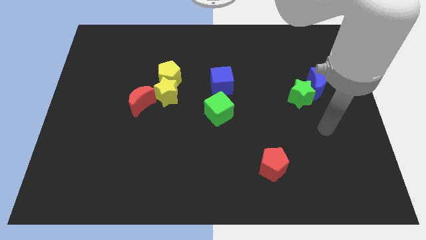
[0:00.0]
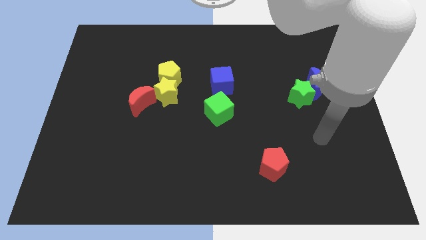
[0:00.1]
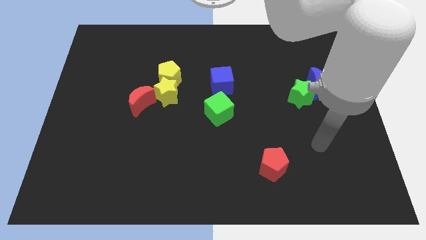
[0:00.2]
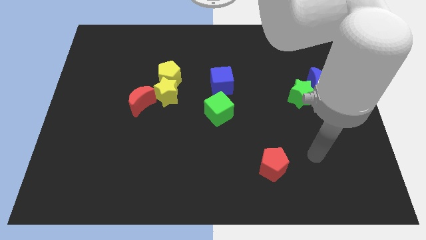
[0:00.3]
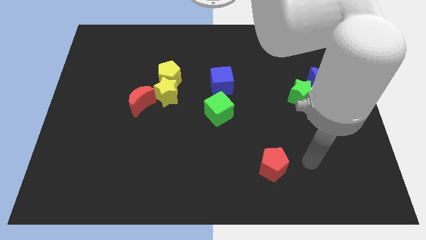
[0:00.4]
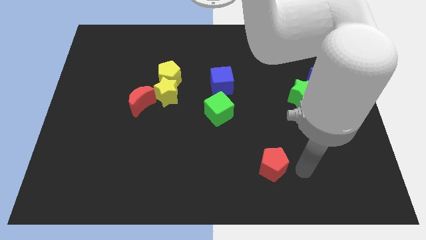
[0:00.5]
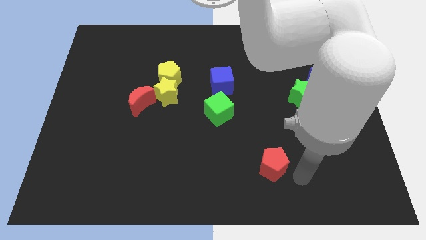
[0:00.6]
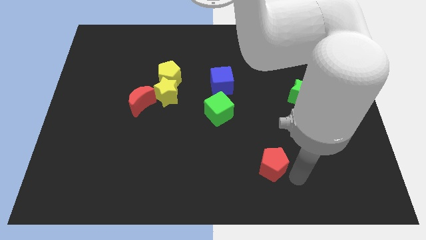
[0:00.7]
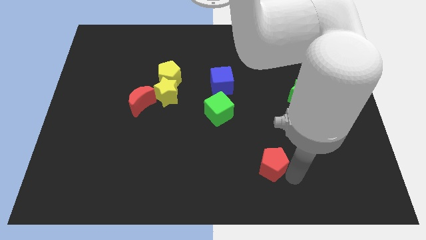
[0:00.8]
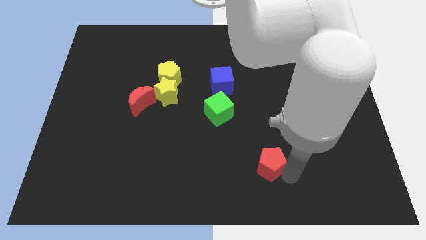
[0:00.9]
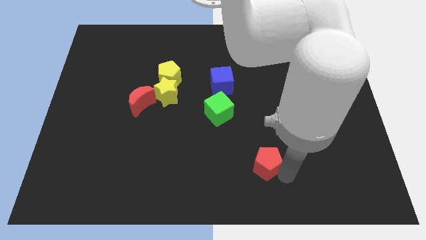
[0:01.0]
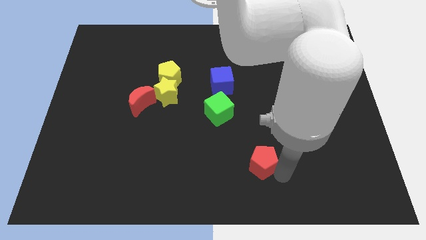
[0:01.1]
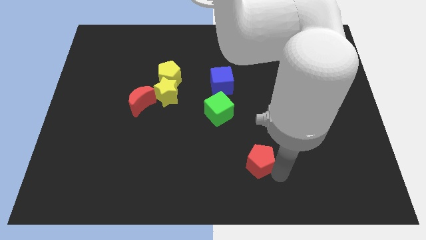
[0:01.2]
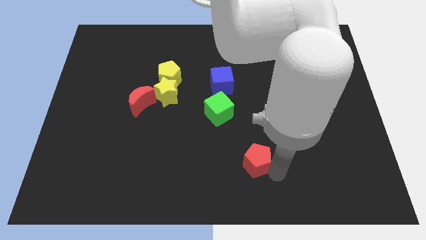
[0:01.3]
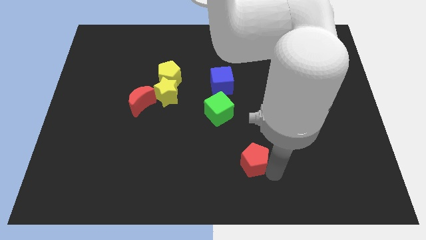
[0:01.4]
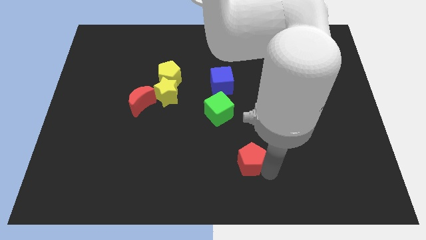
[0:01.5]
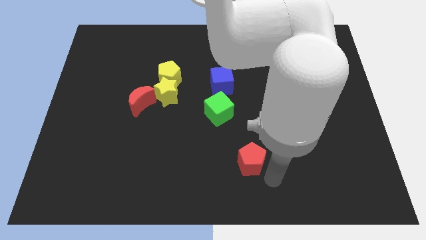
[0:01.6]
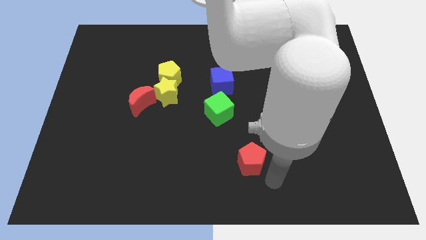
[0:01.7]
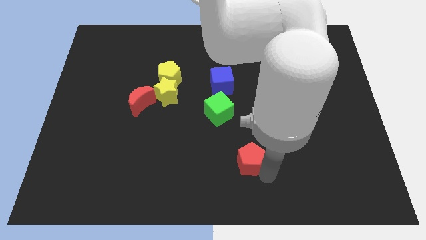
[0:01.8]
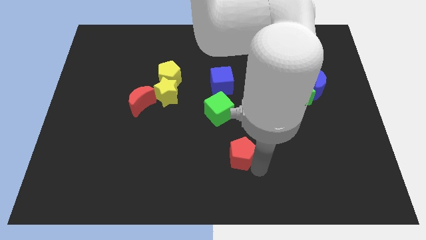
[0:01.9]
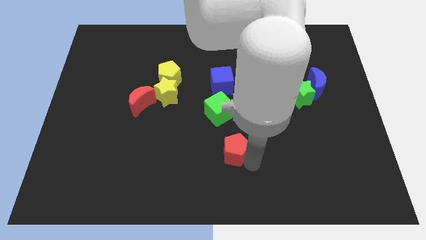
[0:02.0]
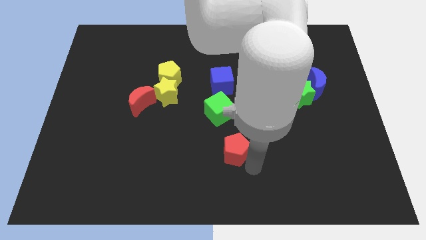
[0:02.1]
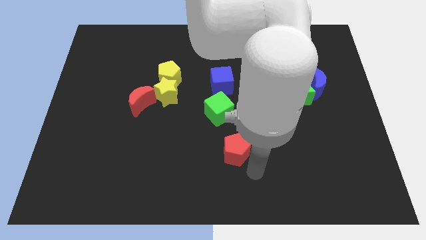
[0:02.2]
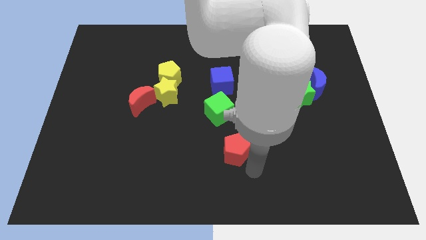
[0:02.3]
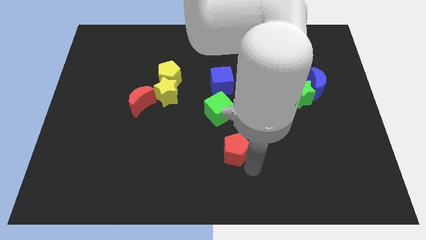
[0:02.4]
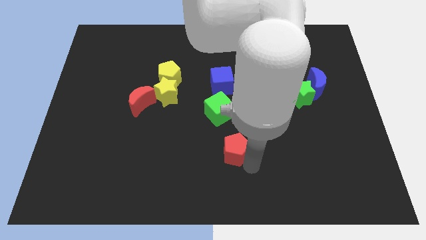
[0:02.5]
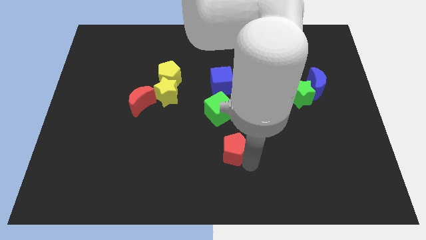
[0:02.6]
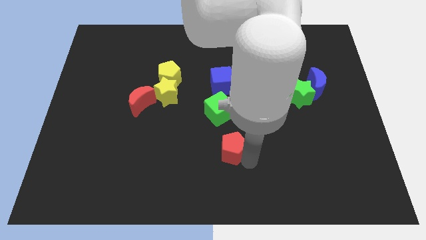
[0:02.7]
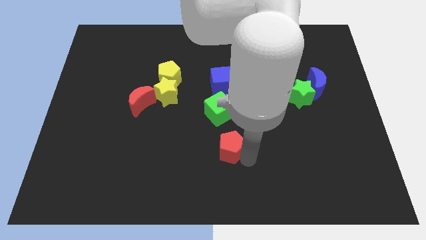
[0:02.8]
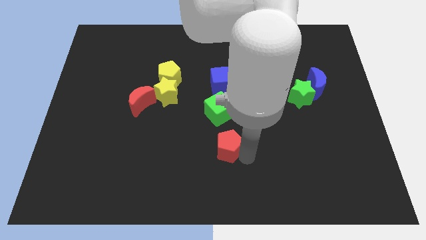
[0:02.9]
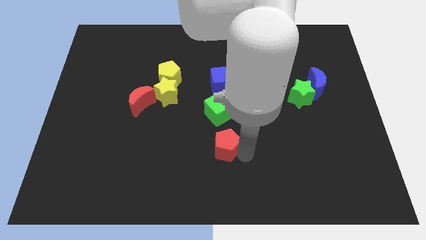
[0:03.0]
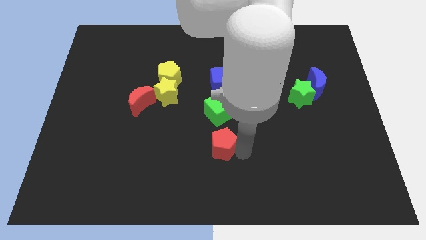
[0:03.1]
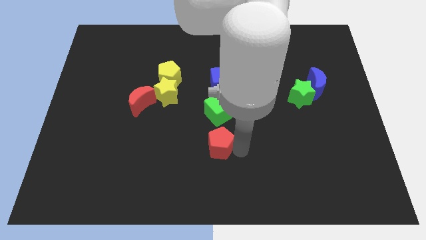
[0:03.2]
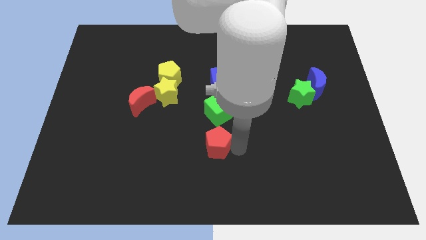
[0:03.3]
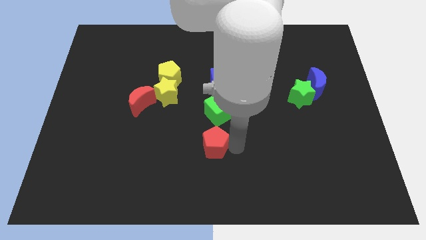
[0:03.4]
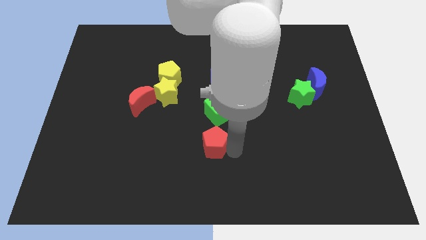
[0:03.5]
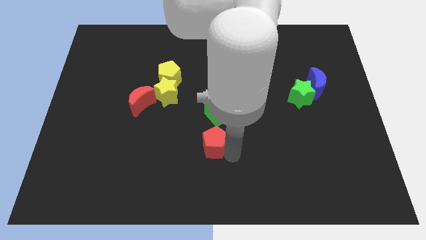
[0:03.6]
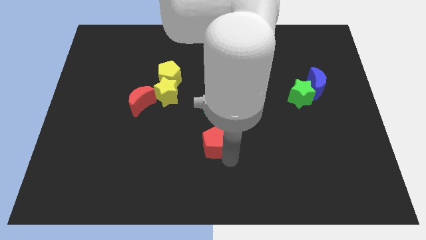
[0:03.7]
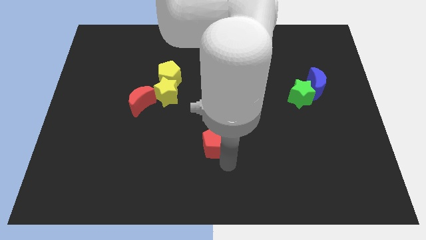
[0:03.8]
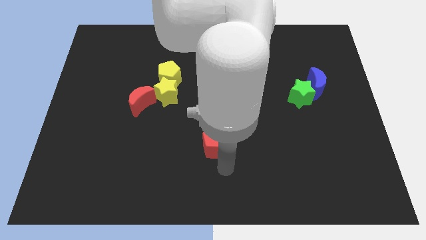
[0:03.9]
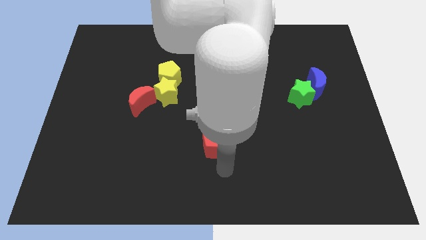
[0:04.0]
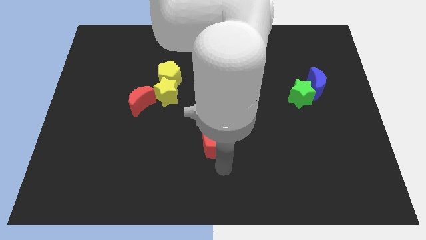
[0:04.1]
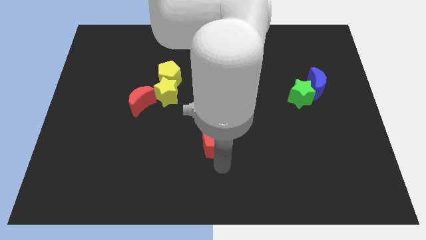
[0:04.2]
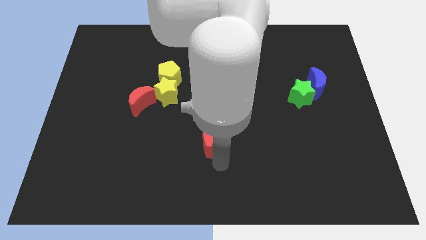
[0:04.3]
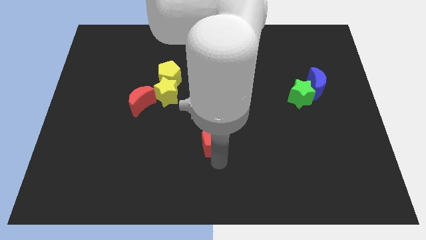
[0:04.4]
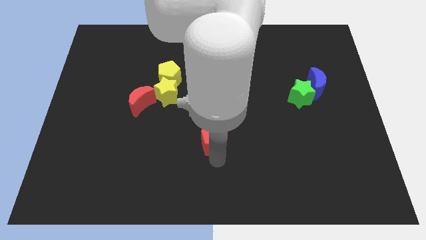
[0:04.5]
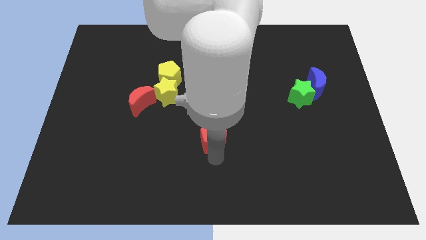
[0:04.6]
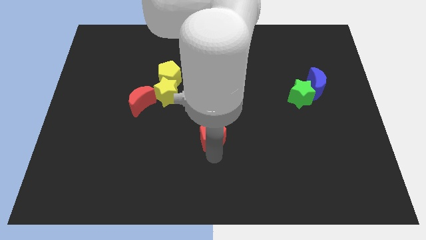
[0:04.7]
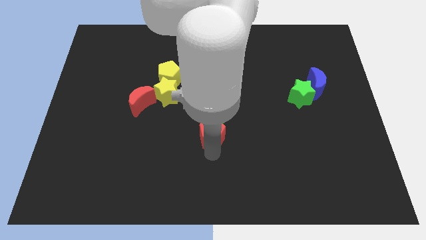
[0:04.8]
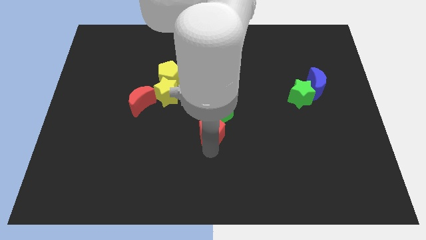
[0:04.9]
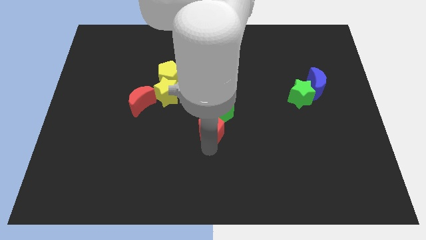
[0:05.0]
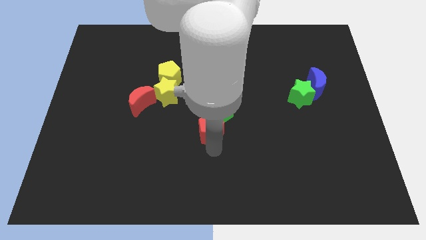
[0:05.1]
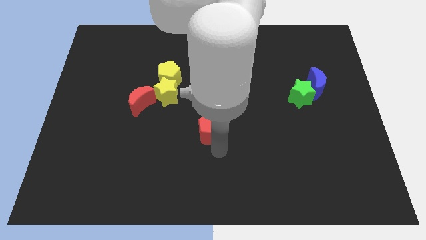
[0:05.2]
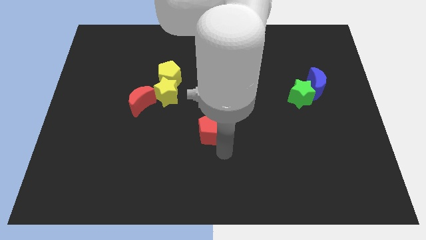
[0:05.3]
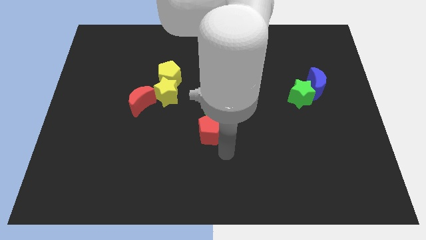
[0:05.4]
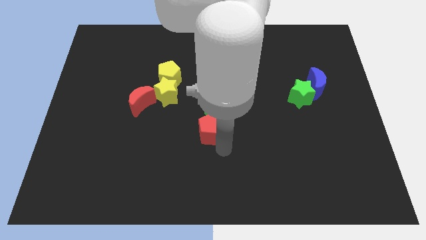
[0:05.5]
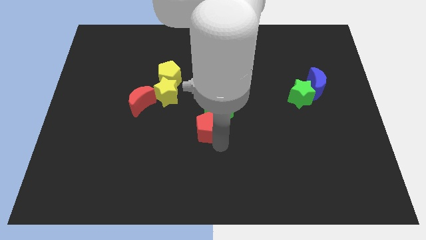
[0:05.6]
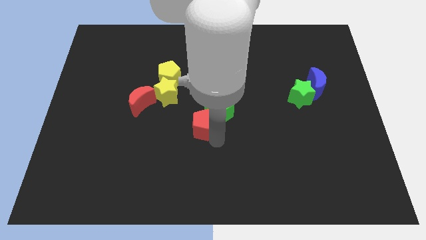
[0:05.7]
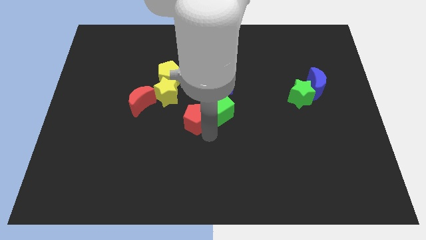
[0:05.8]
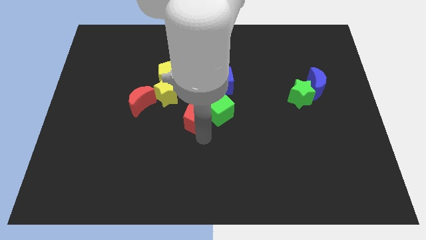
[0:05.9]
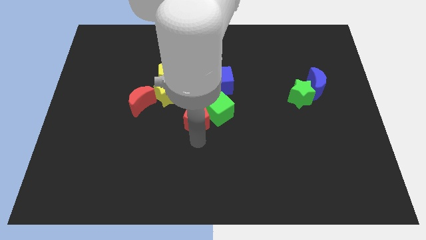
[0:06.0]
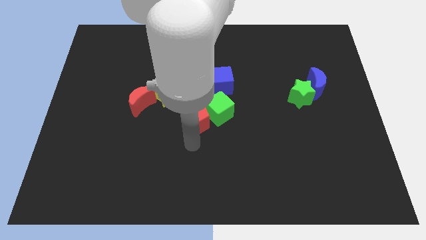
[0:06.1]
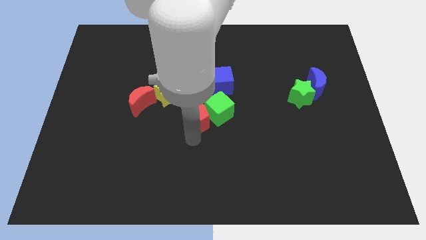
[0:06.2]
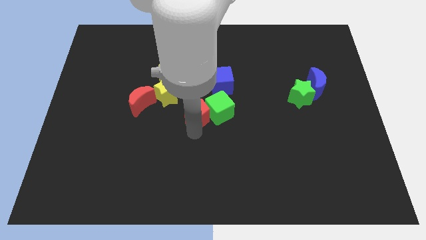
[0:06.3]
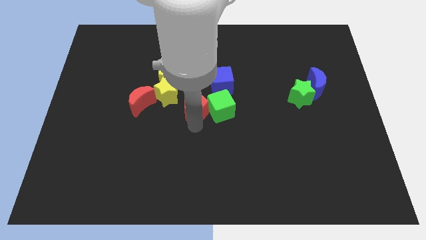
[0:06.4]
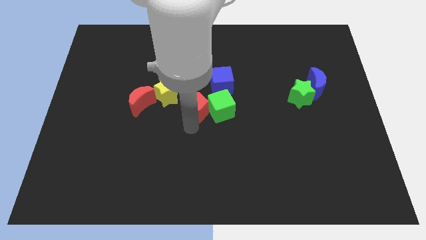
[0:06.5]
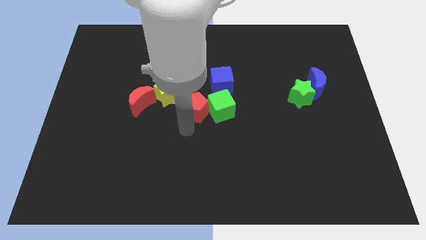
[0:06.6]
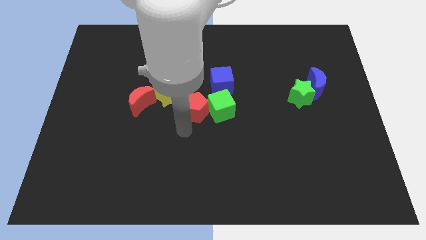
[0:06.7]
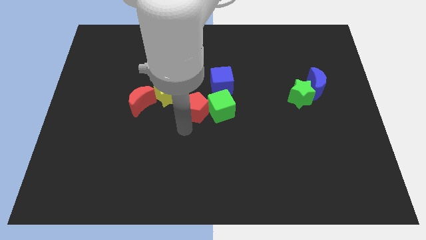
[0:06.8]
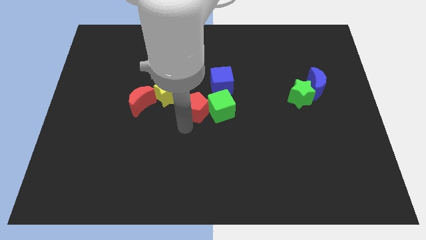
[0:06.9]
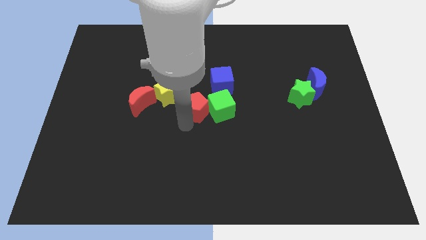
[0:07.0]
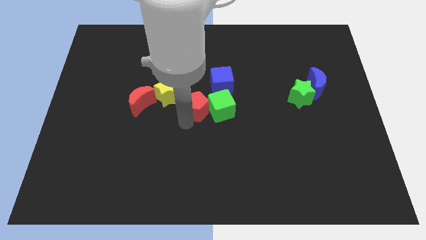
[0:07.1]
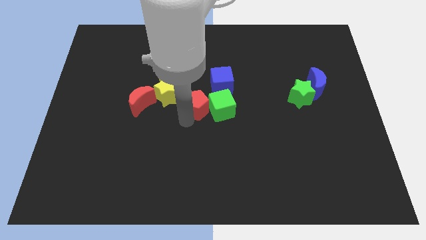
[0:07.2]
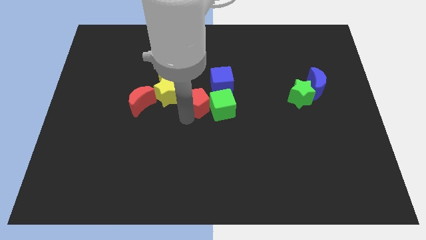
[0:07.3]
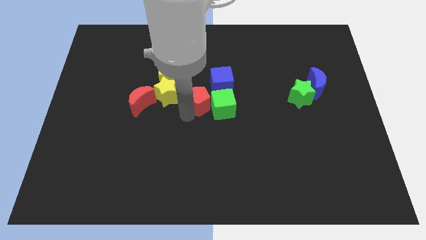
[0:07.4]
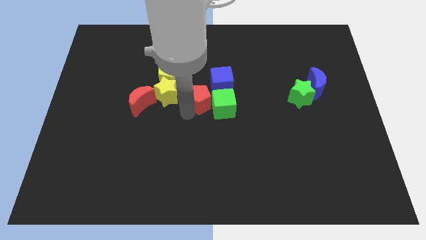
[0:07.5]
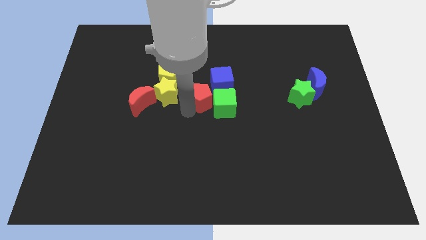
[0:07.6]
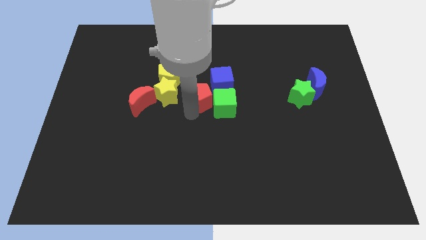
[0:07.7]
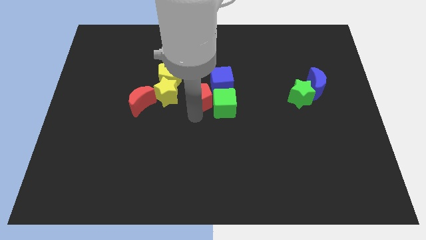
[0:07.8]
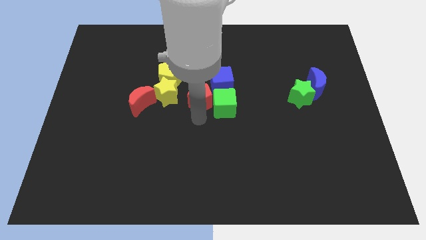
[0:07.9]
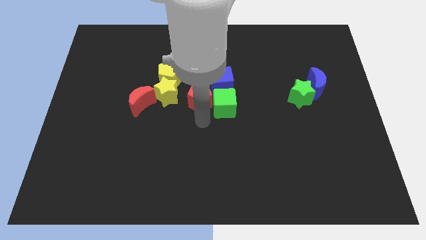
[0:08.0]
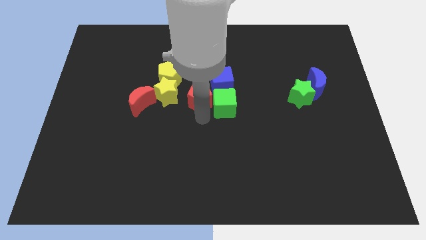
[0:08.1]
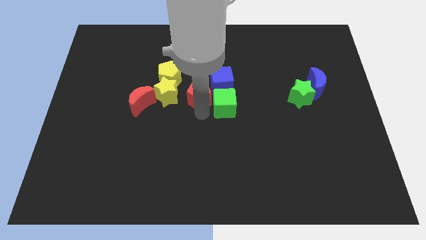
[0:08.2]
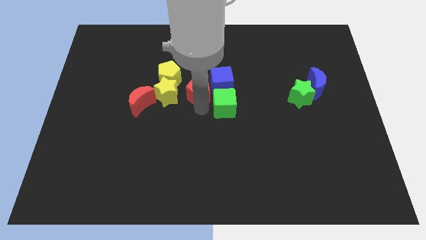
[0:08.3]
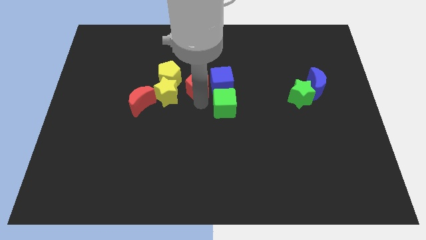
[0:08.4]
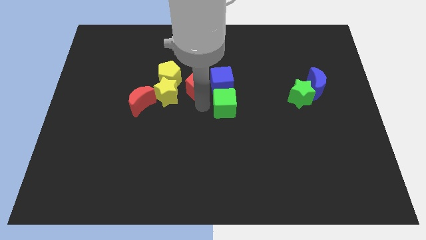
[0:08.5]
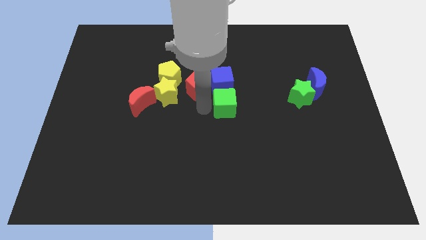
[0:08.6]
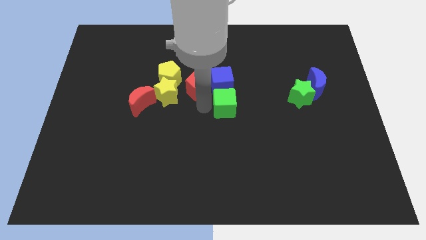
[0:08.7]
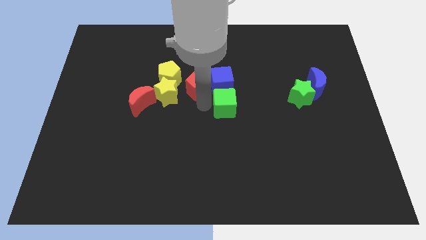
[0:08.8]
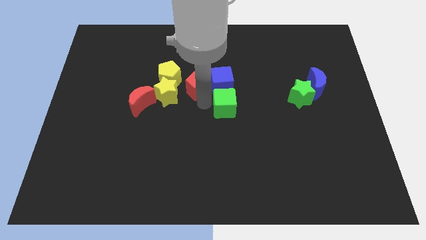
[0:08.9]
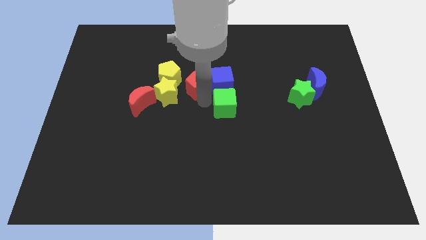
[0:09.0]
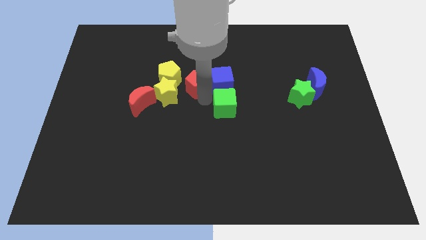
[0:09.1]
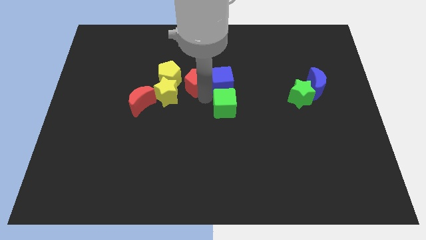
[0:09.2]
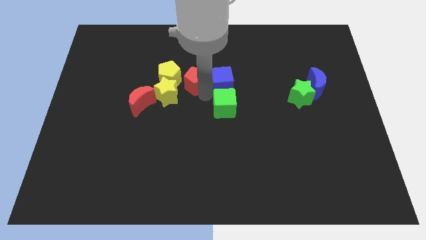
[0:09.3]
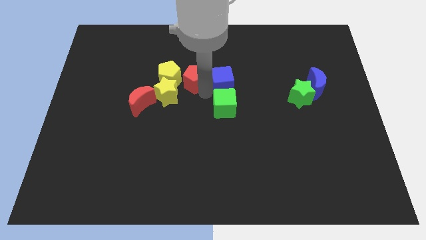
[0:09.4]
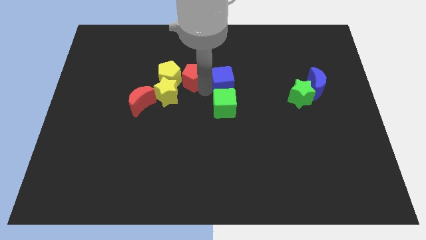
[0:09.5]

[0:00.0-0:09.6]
move the red pentagon diagonally up and to the right of the yellow pentagon
